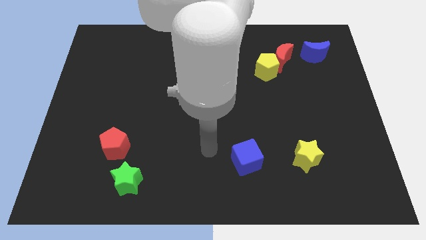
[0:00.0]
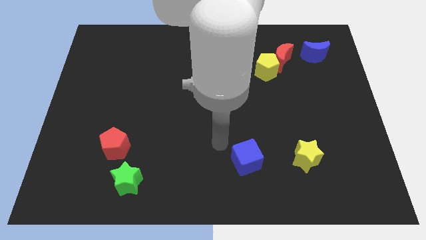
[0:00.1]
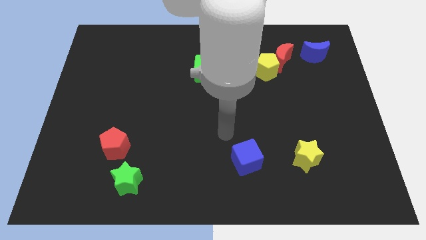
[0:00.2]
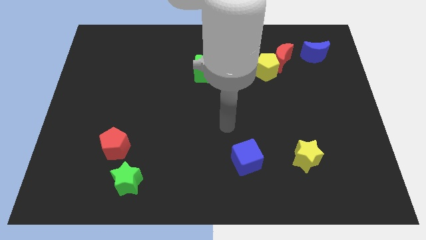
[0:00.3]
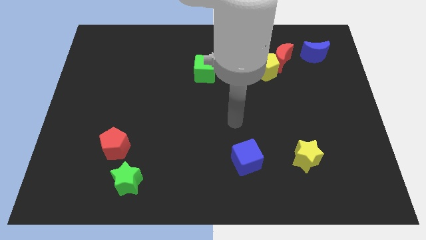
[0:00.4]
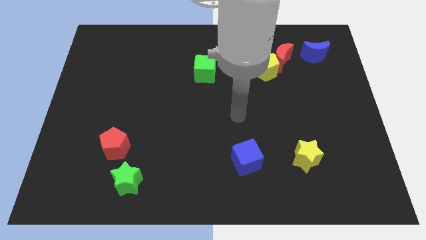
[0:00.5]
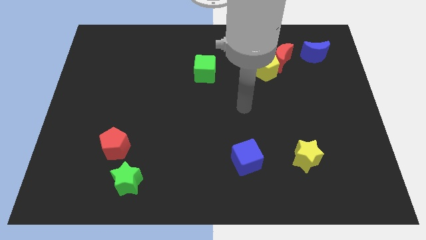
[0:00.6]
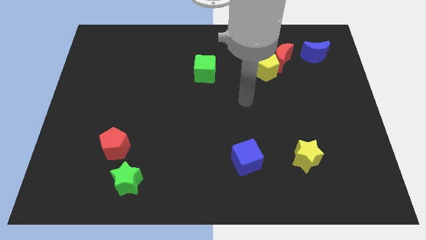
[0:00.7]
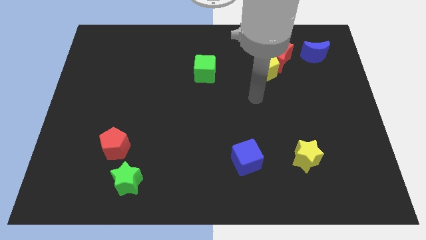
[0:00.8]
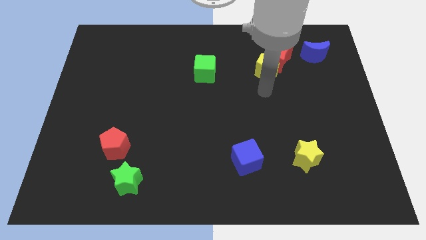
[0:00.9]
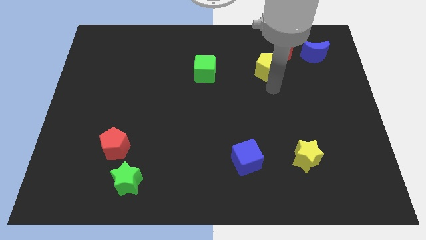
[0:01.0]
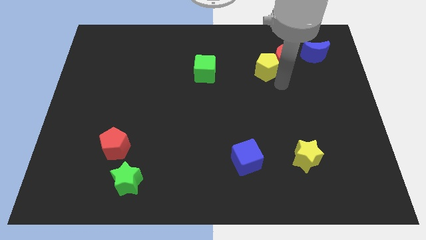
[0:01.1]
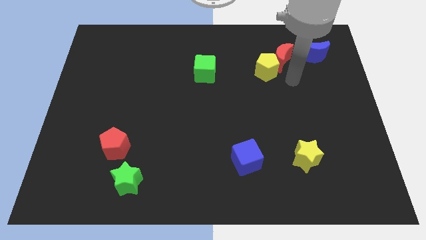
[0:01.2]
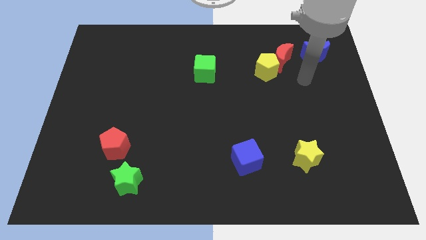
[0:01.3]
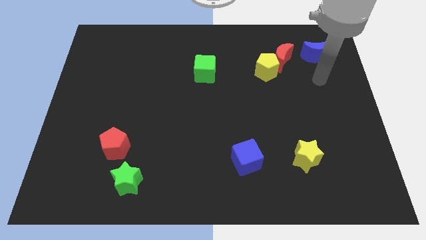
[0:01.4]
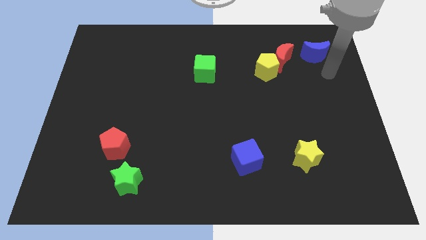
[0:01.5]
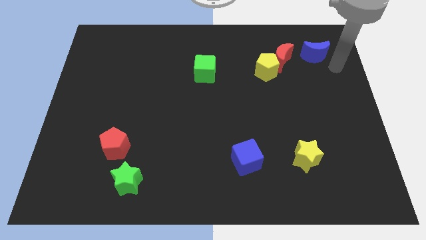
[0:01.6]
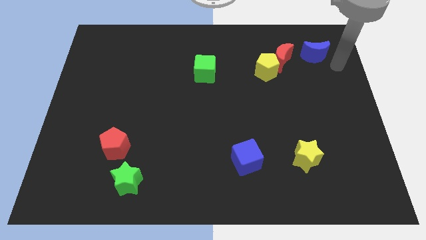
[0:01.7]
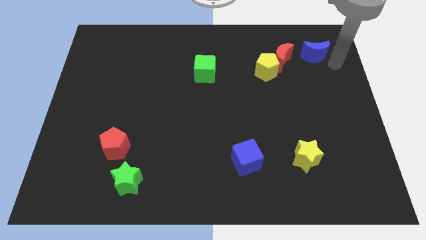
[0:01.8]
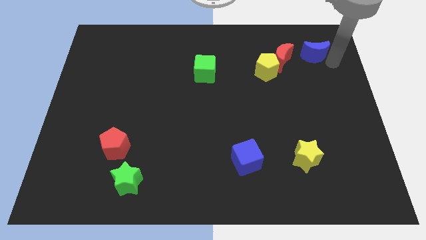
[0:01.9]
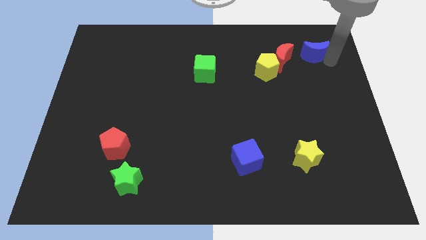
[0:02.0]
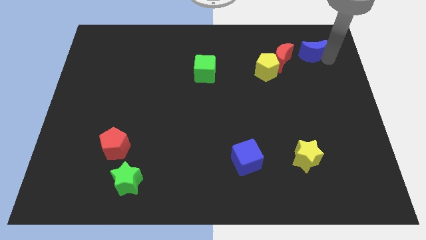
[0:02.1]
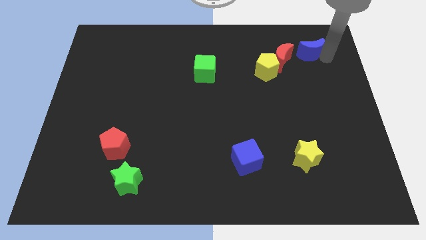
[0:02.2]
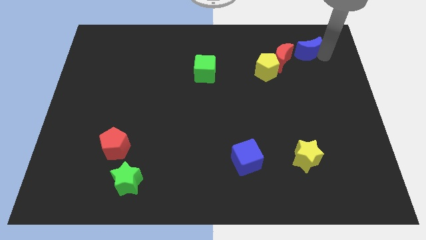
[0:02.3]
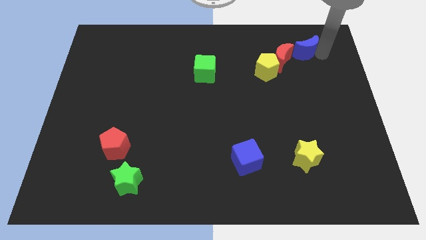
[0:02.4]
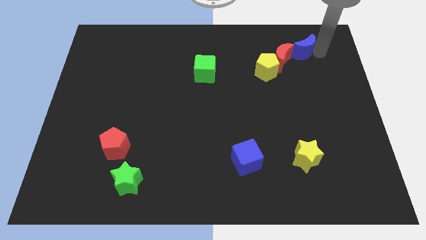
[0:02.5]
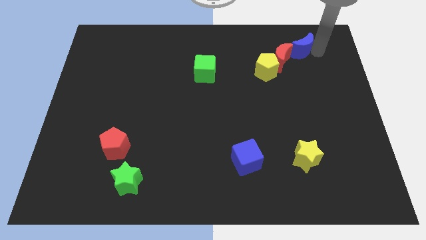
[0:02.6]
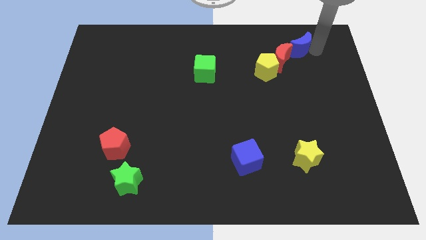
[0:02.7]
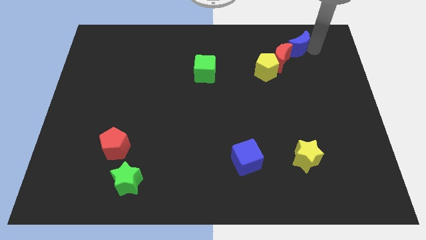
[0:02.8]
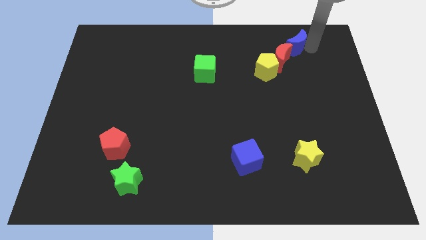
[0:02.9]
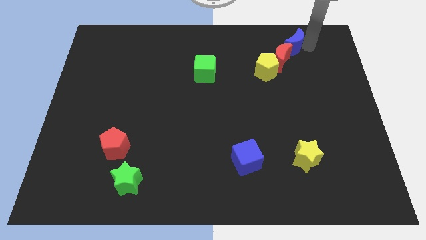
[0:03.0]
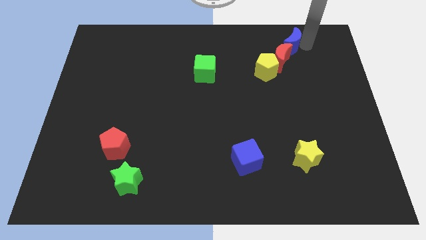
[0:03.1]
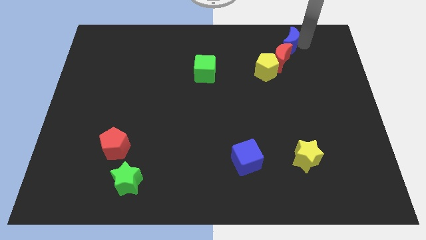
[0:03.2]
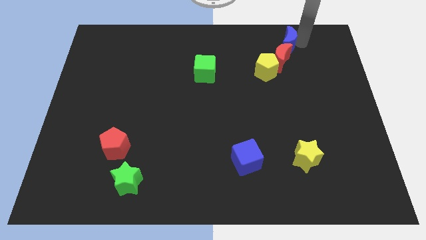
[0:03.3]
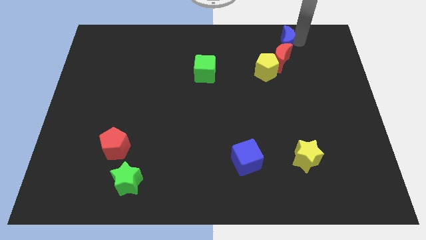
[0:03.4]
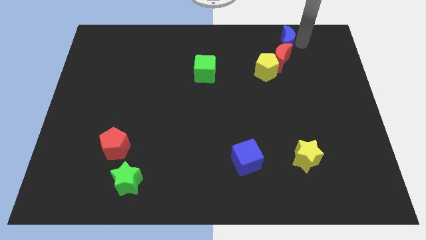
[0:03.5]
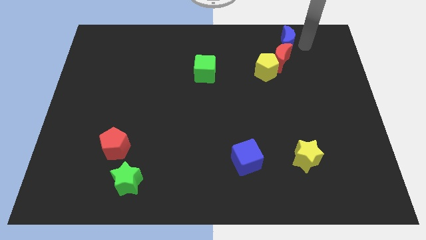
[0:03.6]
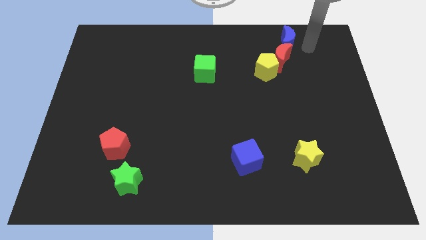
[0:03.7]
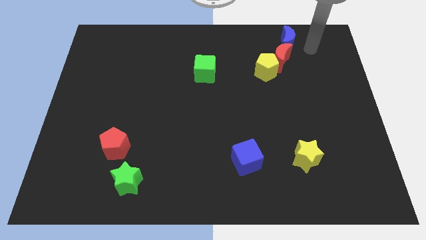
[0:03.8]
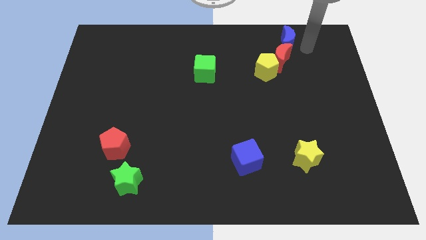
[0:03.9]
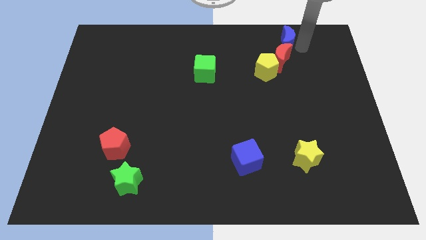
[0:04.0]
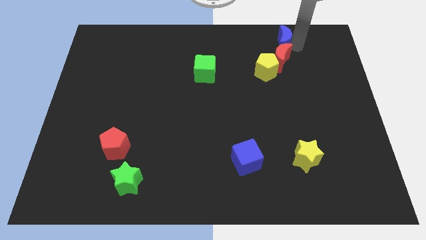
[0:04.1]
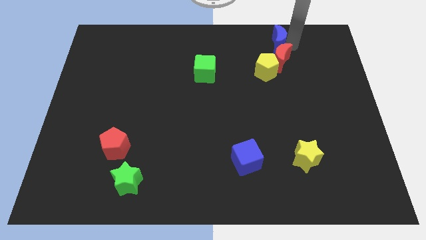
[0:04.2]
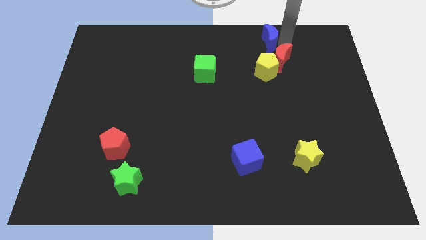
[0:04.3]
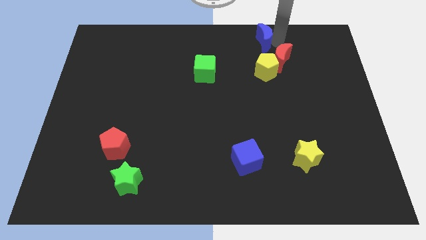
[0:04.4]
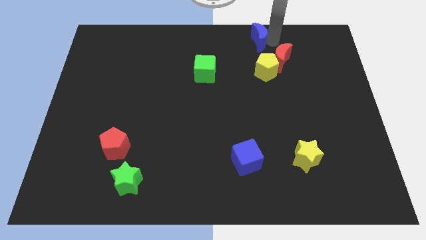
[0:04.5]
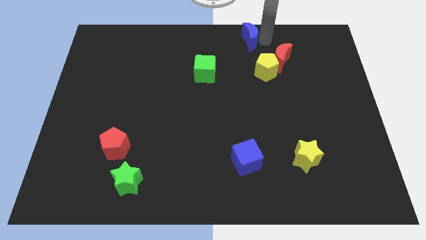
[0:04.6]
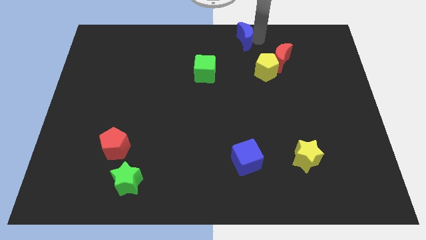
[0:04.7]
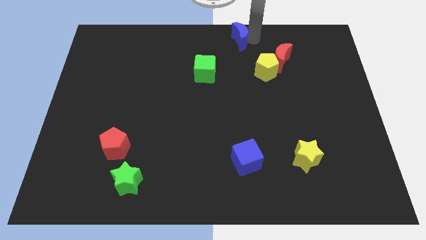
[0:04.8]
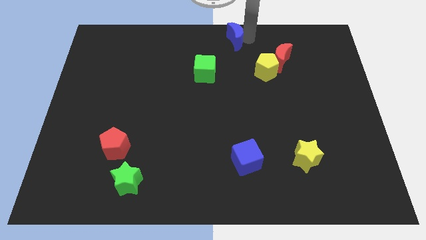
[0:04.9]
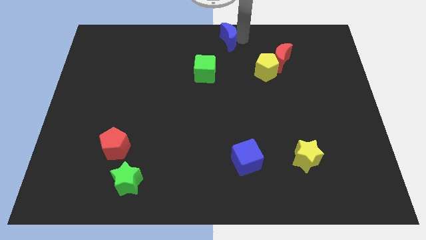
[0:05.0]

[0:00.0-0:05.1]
move the blue moon left

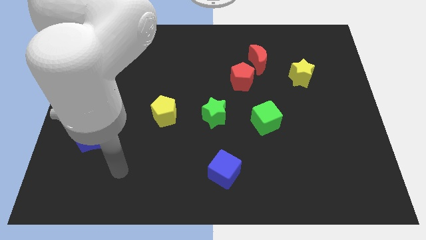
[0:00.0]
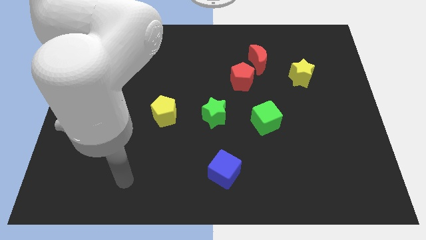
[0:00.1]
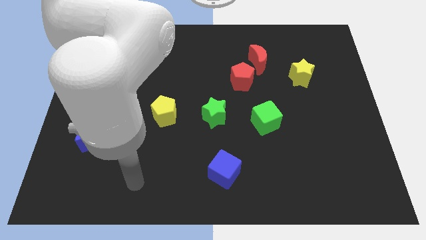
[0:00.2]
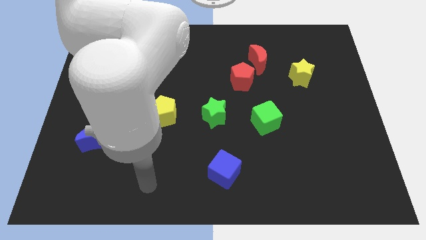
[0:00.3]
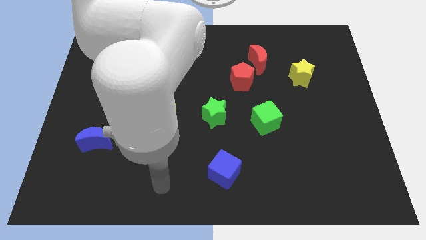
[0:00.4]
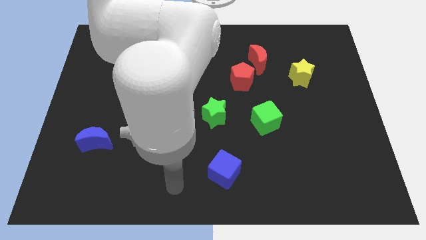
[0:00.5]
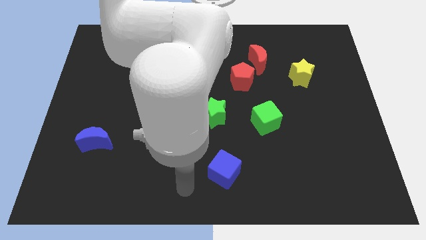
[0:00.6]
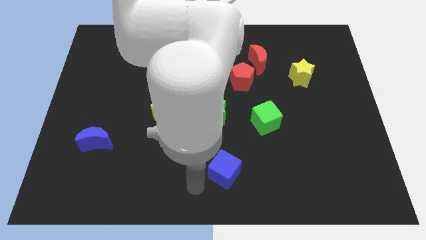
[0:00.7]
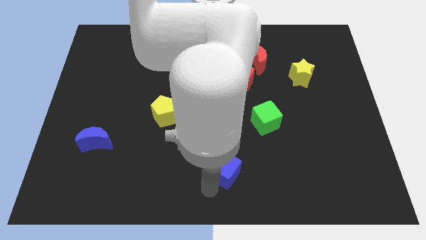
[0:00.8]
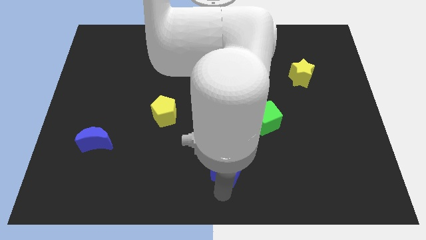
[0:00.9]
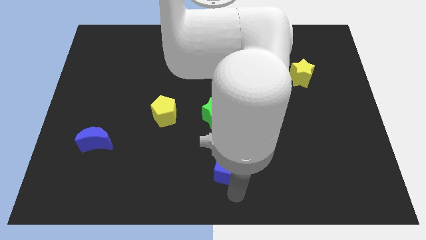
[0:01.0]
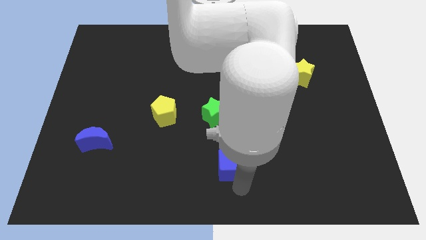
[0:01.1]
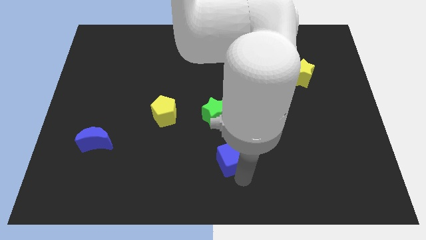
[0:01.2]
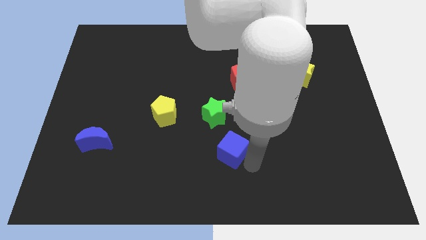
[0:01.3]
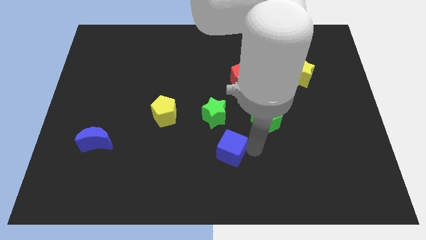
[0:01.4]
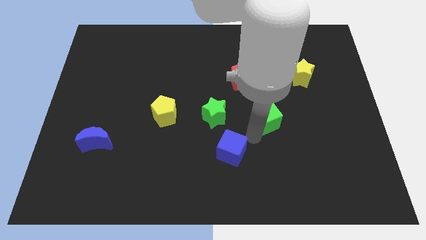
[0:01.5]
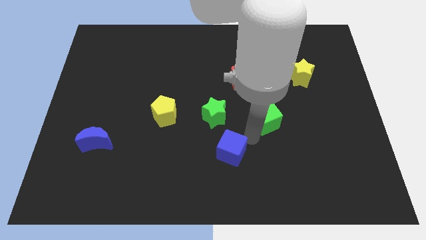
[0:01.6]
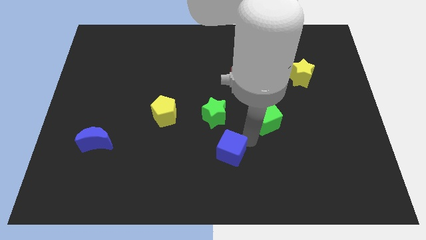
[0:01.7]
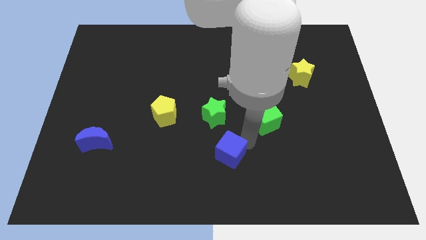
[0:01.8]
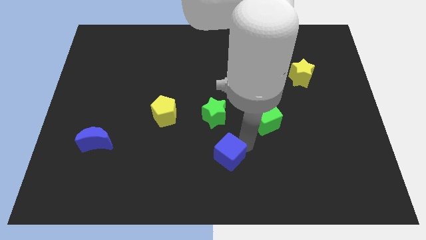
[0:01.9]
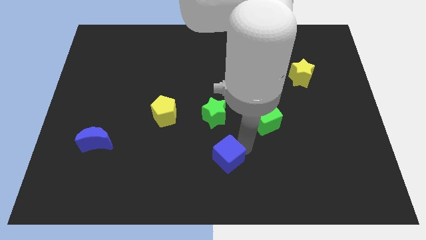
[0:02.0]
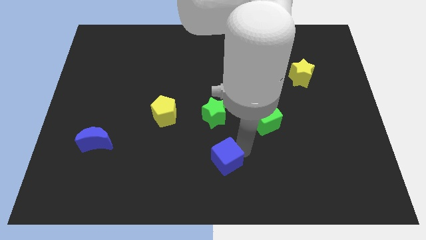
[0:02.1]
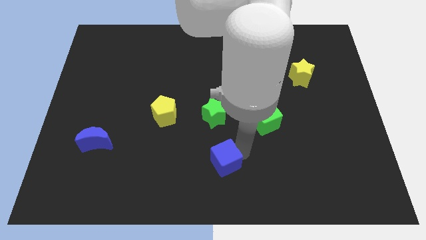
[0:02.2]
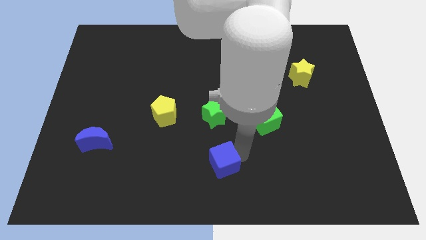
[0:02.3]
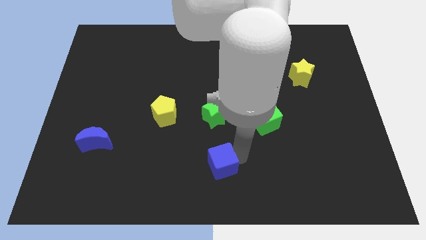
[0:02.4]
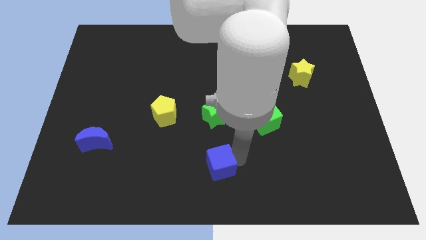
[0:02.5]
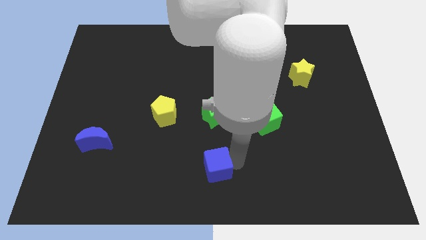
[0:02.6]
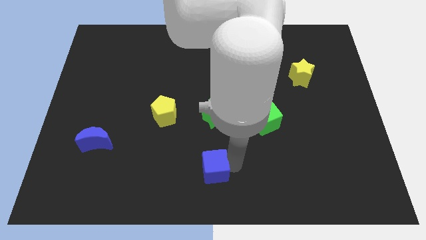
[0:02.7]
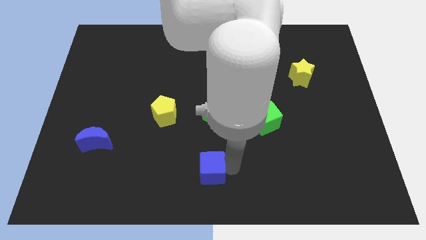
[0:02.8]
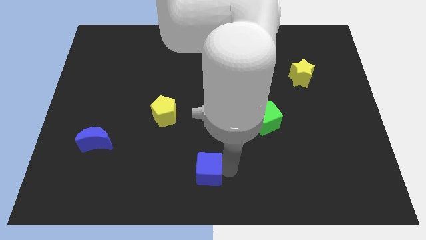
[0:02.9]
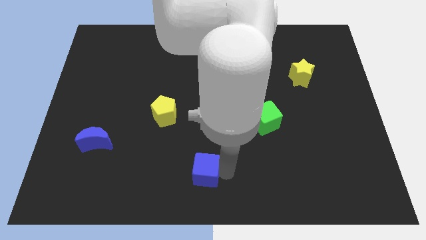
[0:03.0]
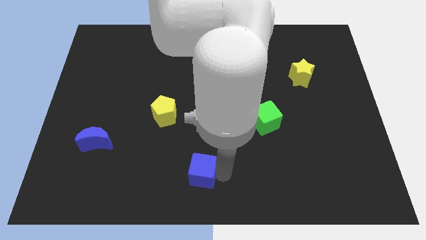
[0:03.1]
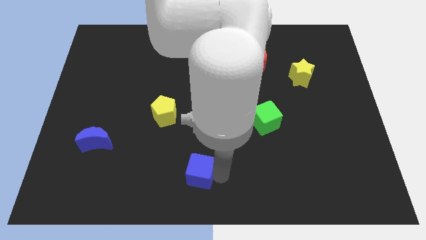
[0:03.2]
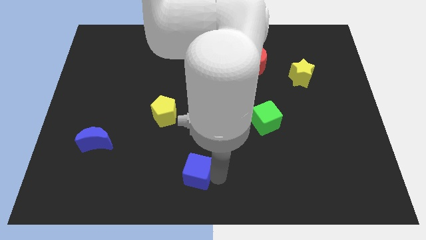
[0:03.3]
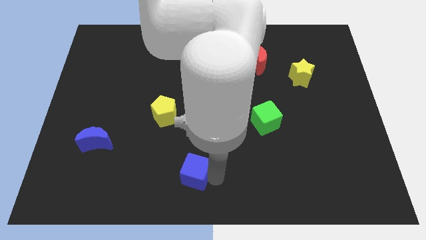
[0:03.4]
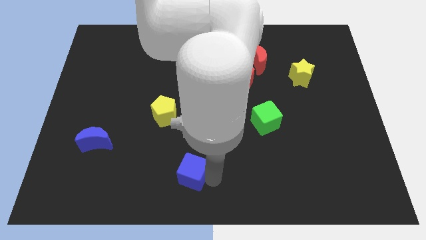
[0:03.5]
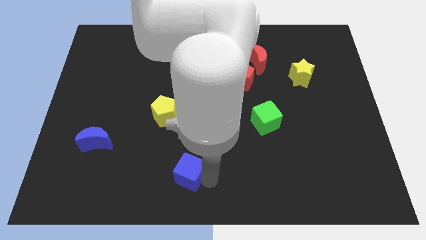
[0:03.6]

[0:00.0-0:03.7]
slightly slide the blue cube to the left
